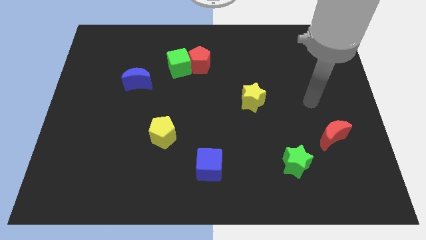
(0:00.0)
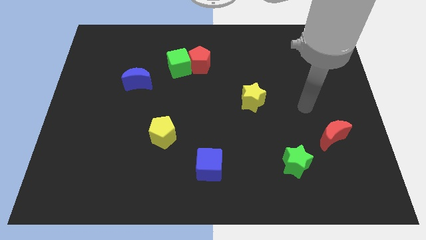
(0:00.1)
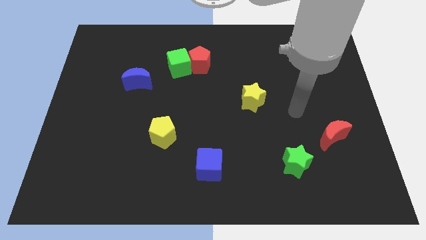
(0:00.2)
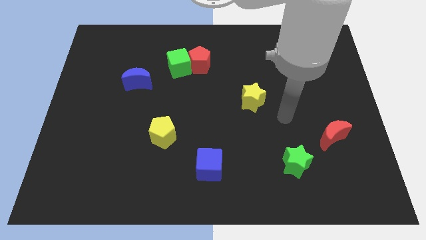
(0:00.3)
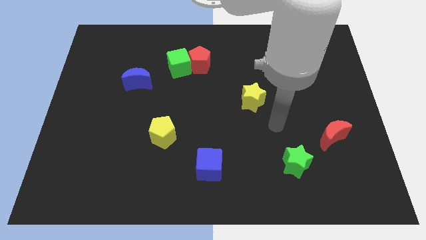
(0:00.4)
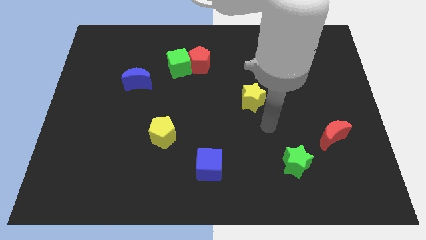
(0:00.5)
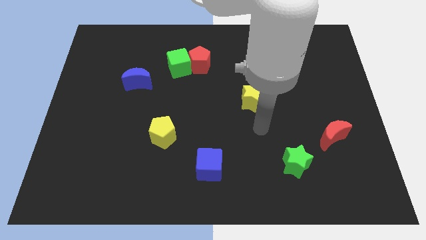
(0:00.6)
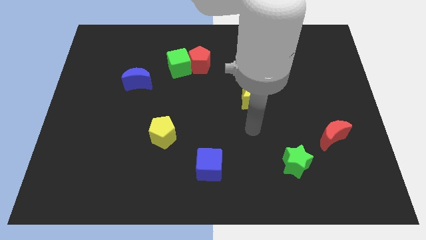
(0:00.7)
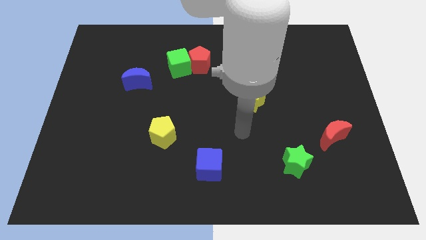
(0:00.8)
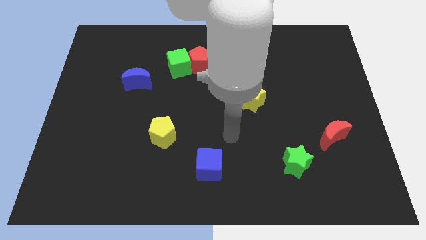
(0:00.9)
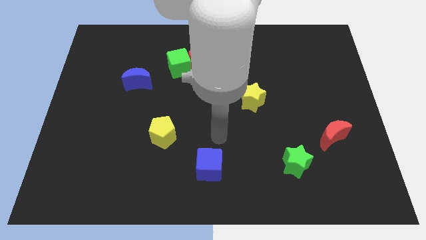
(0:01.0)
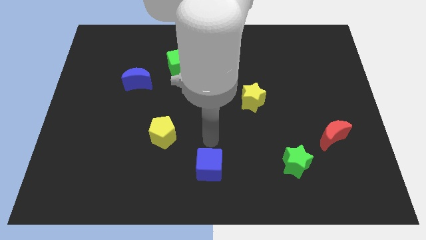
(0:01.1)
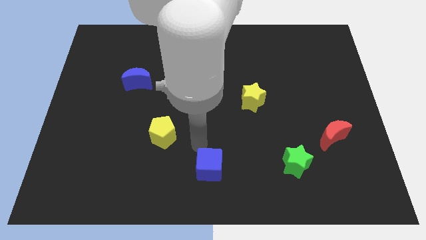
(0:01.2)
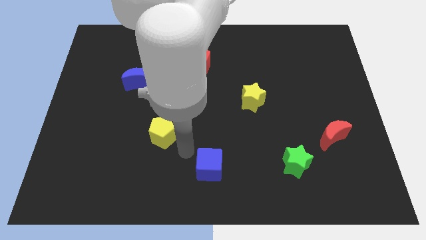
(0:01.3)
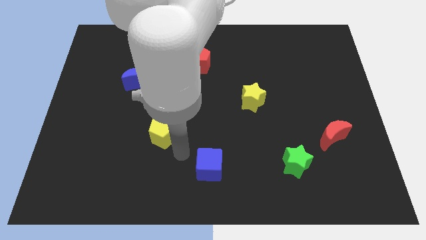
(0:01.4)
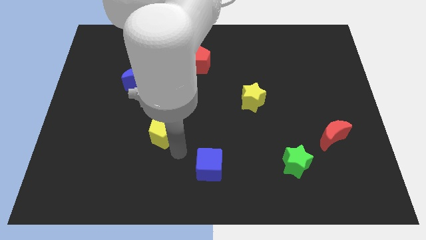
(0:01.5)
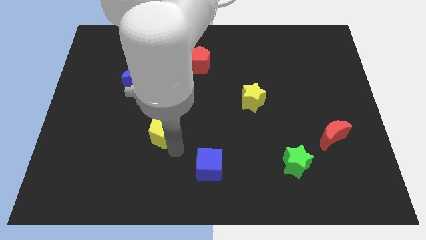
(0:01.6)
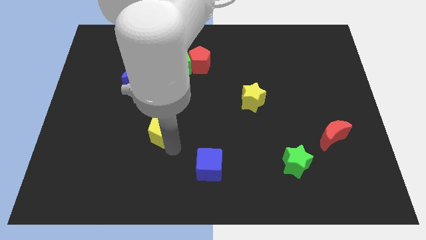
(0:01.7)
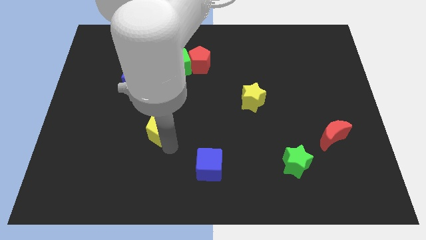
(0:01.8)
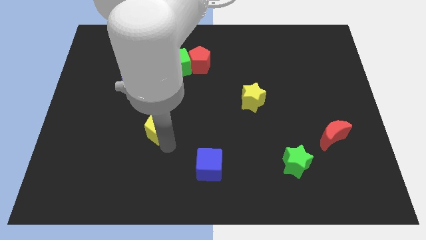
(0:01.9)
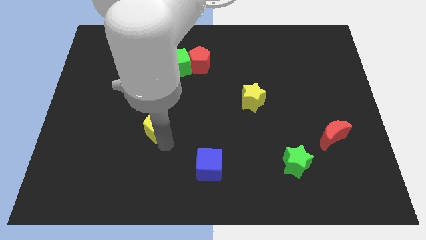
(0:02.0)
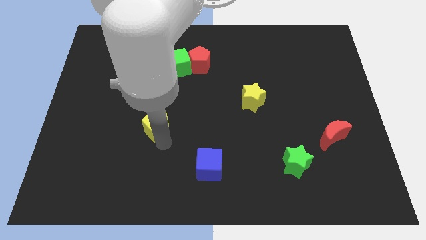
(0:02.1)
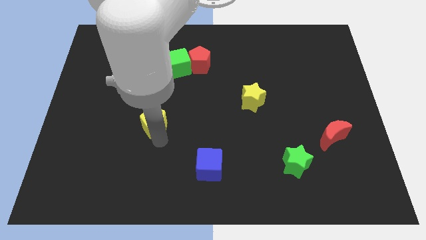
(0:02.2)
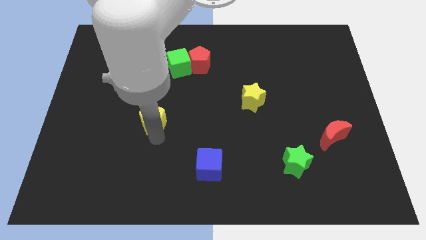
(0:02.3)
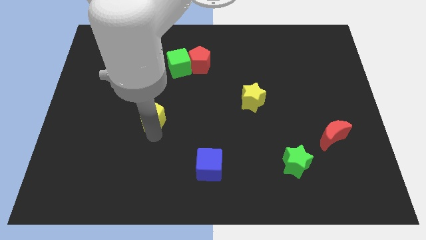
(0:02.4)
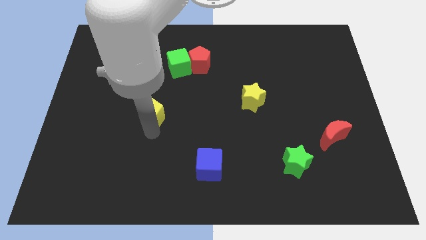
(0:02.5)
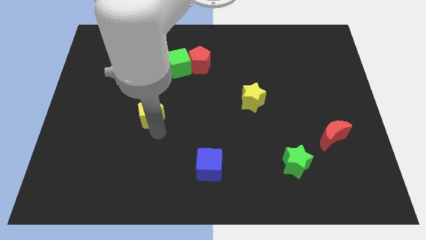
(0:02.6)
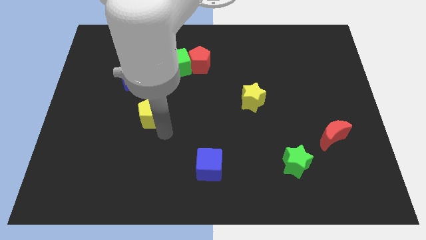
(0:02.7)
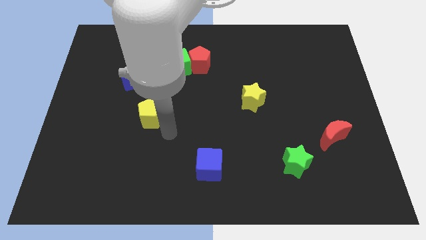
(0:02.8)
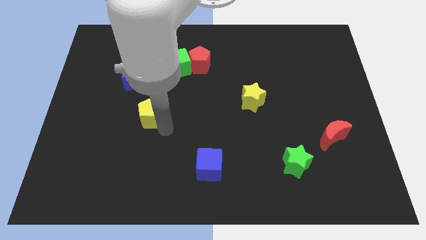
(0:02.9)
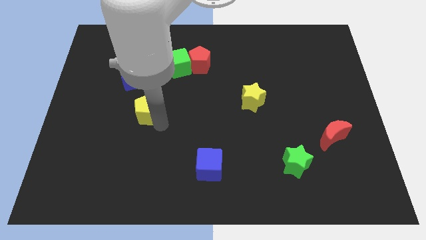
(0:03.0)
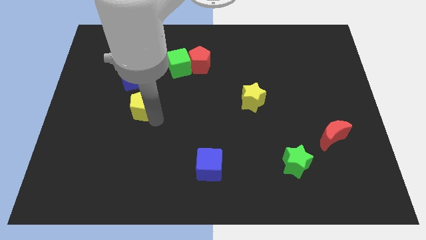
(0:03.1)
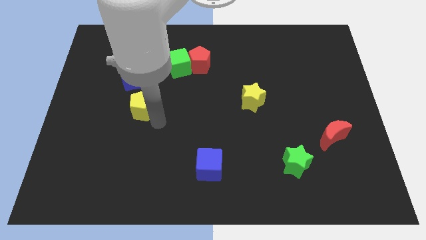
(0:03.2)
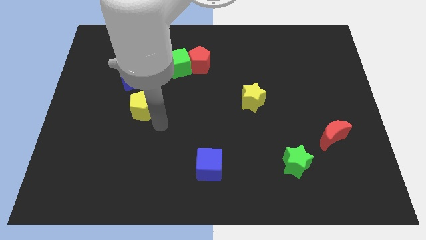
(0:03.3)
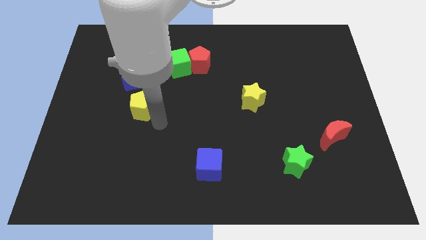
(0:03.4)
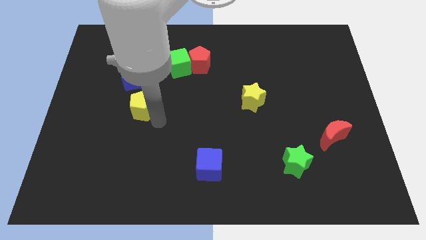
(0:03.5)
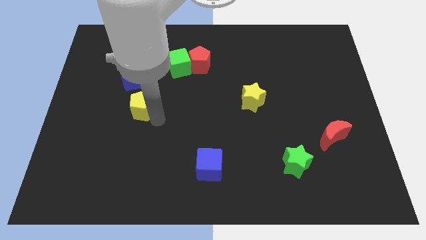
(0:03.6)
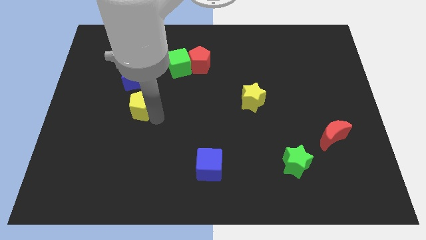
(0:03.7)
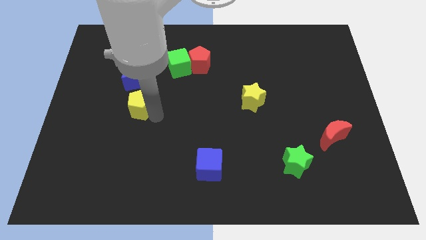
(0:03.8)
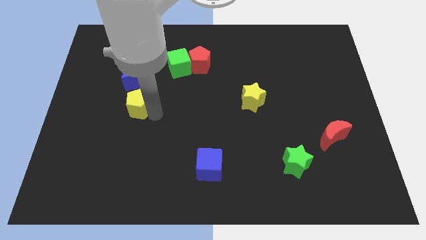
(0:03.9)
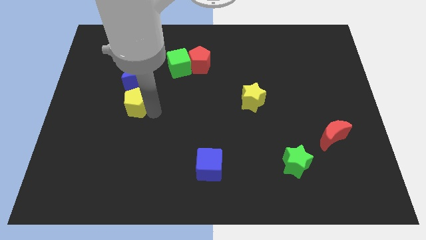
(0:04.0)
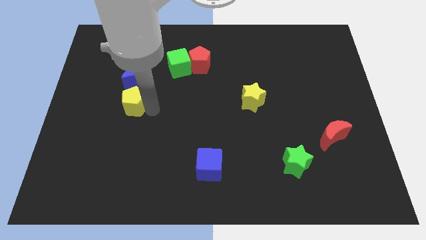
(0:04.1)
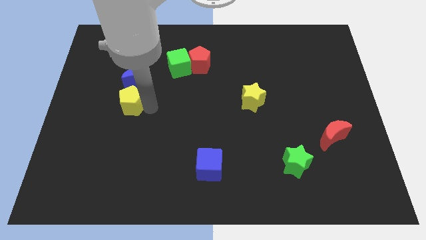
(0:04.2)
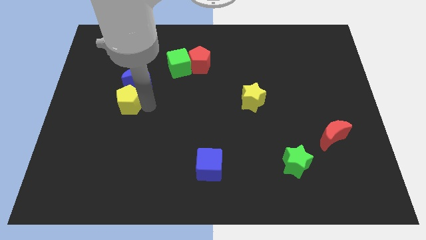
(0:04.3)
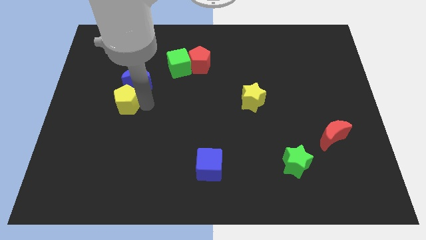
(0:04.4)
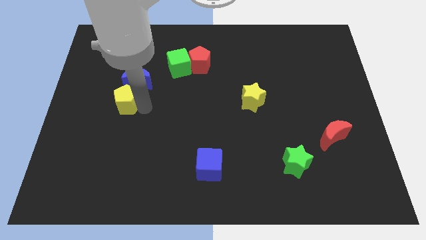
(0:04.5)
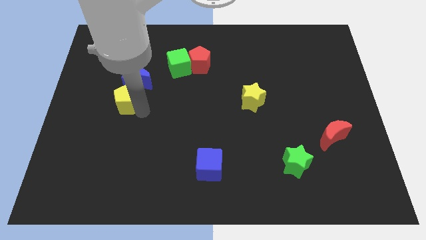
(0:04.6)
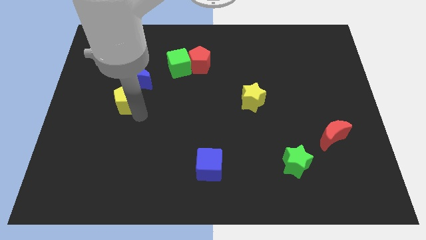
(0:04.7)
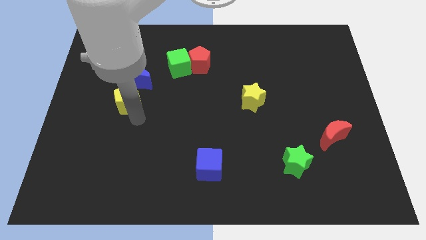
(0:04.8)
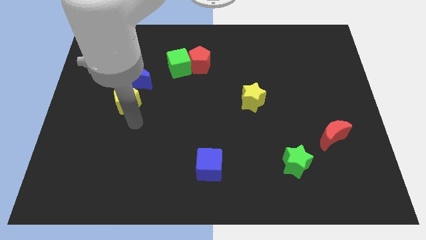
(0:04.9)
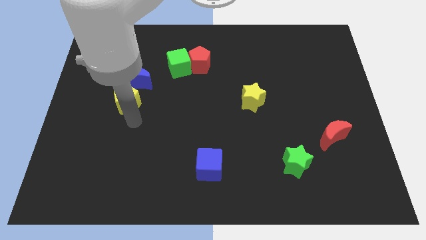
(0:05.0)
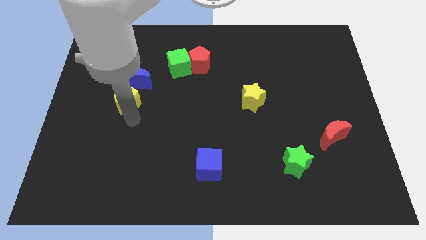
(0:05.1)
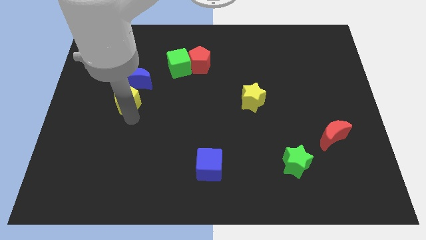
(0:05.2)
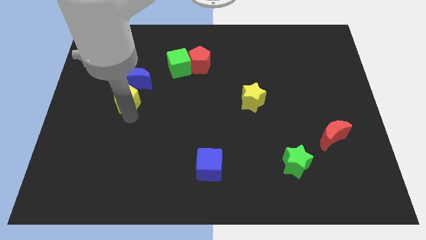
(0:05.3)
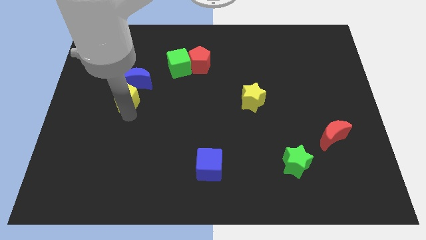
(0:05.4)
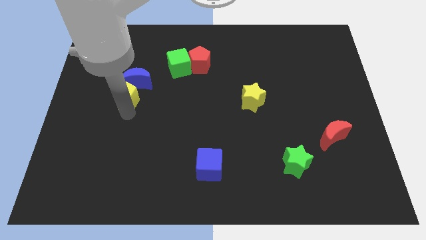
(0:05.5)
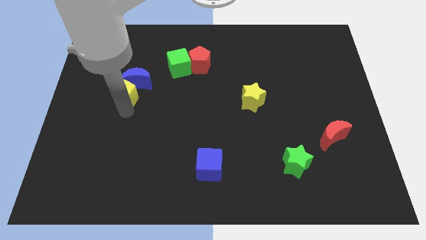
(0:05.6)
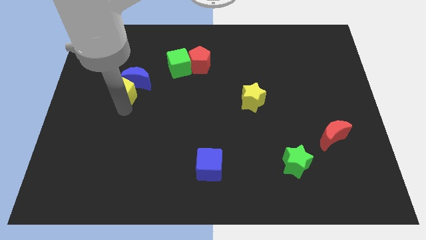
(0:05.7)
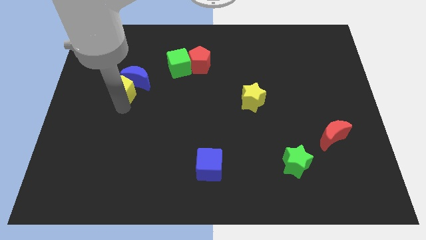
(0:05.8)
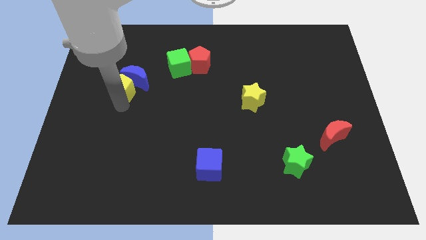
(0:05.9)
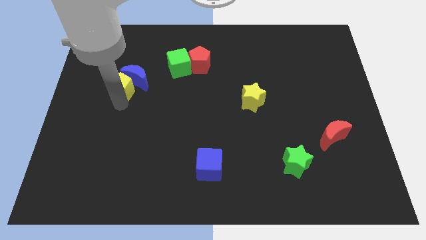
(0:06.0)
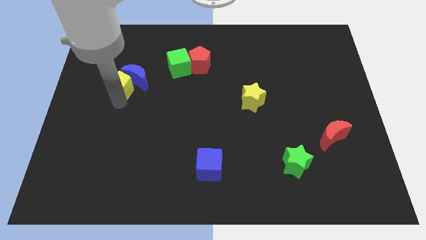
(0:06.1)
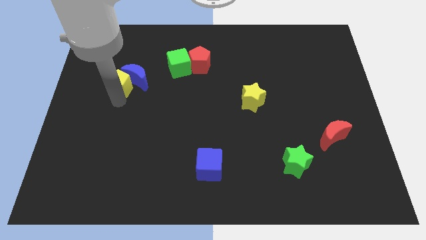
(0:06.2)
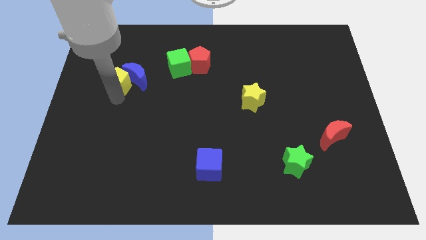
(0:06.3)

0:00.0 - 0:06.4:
slide the yellow pentagon diagonally up and to the left of the blue moon

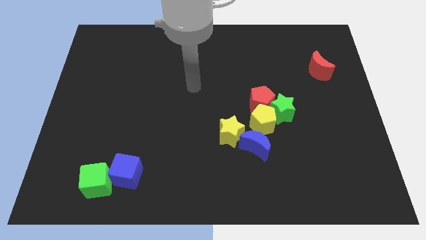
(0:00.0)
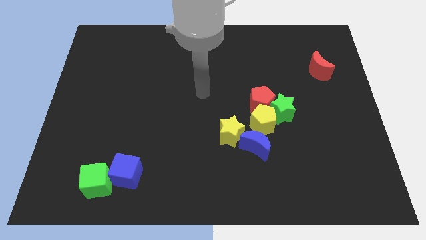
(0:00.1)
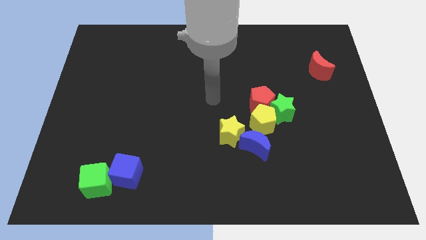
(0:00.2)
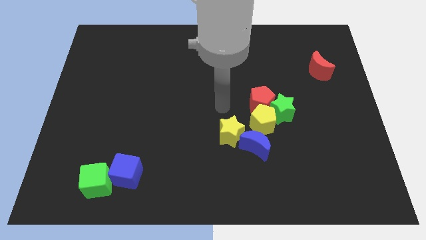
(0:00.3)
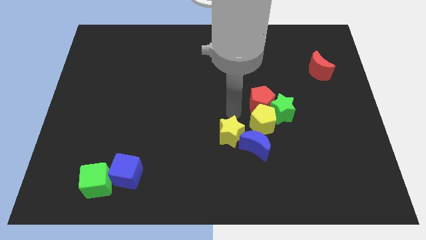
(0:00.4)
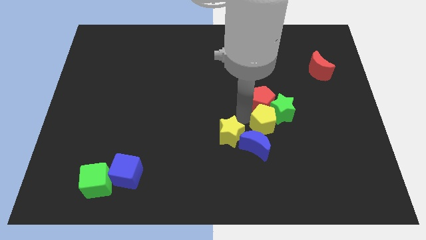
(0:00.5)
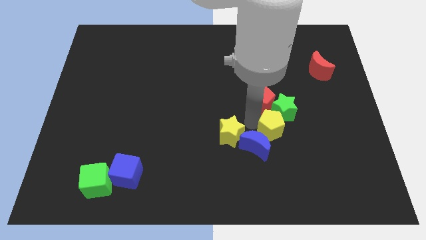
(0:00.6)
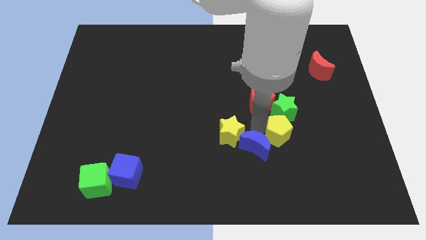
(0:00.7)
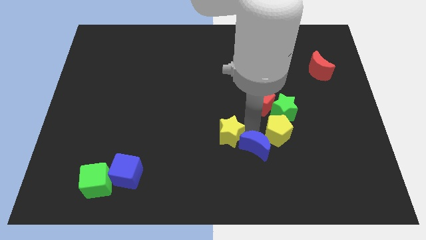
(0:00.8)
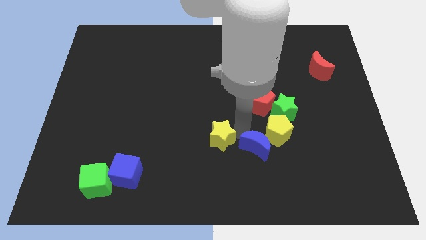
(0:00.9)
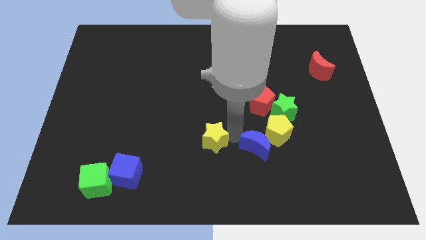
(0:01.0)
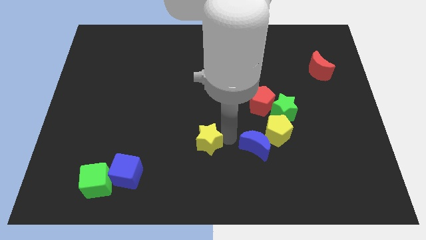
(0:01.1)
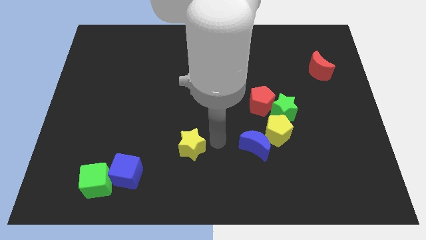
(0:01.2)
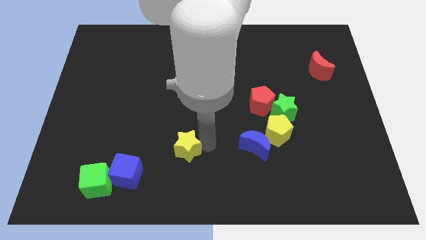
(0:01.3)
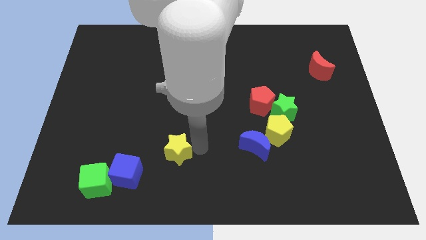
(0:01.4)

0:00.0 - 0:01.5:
slide the yellow star diagonally up and to the right of the blue cube
